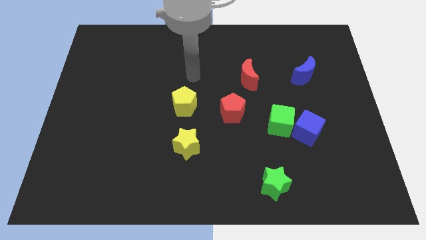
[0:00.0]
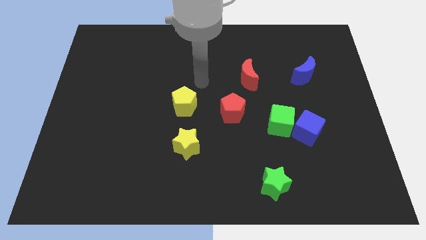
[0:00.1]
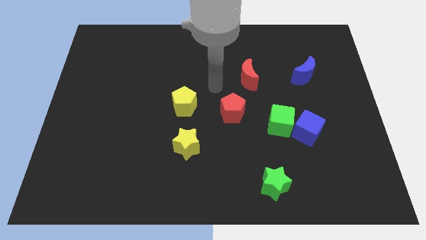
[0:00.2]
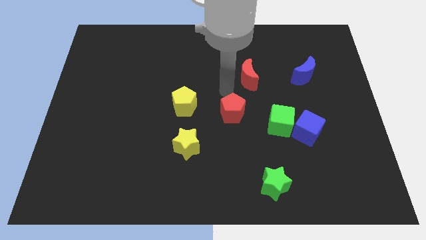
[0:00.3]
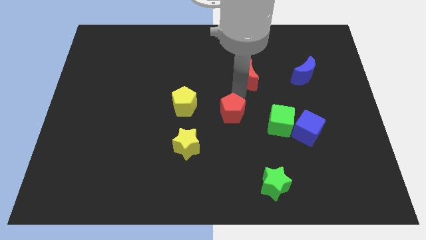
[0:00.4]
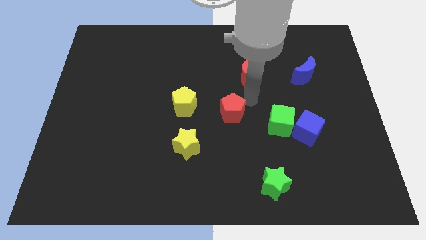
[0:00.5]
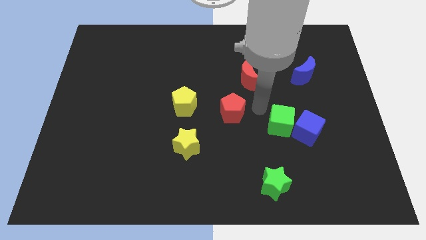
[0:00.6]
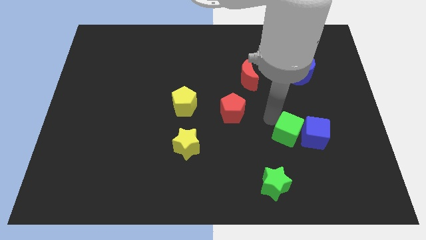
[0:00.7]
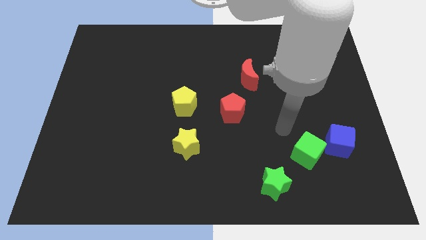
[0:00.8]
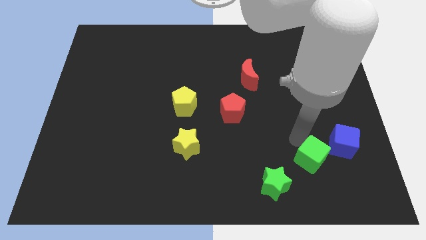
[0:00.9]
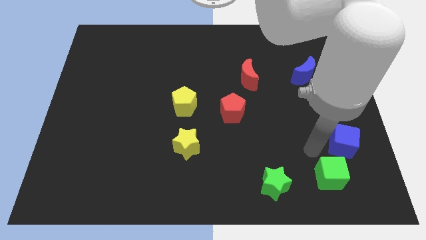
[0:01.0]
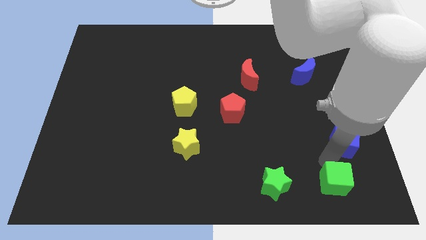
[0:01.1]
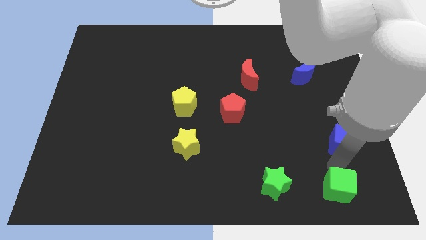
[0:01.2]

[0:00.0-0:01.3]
pull the blue cube apart from the green cube

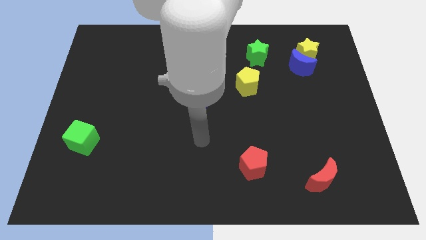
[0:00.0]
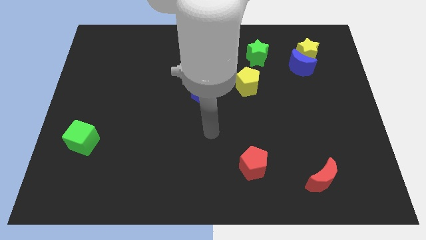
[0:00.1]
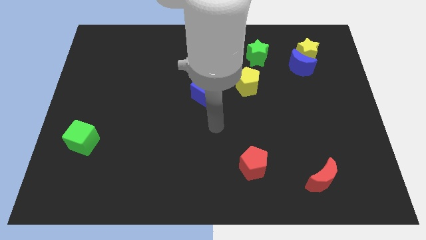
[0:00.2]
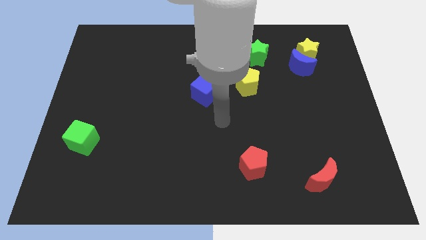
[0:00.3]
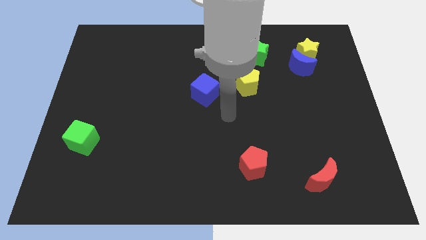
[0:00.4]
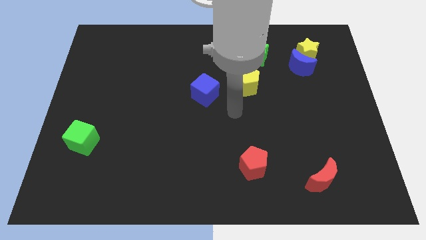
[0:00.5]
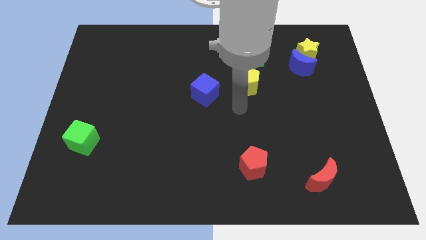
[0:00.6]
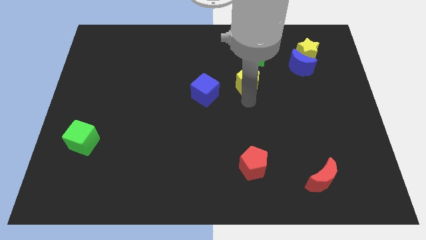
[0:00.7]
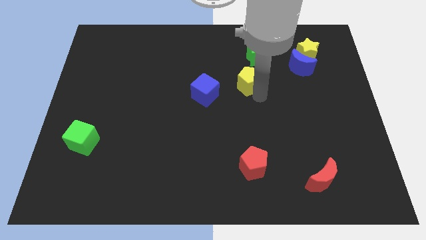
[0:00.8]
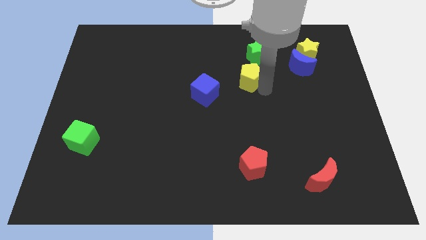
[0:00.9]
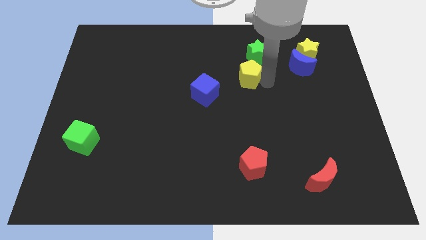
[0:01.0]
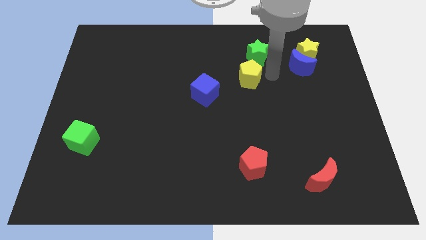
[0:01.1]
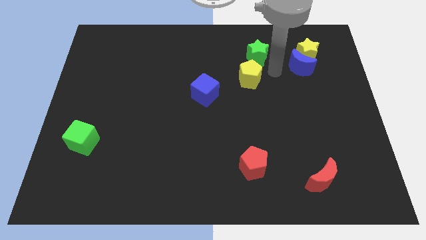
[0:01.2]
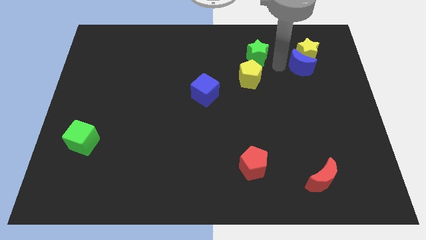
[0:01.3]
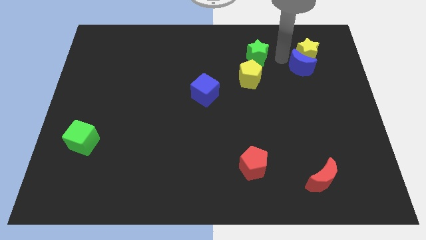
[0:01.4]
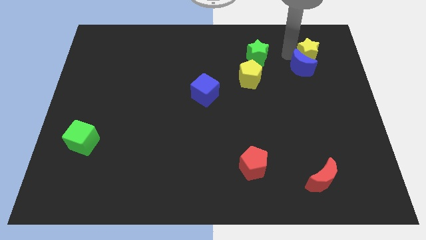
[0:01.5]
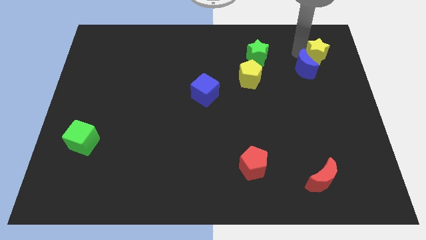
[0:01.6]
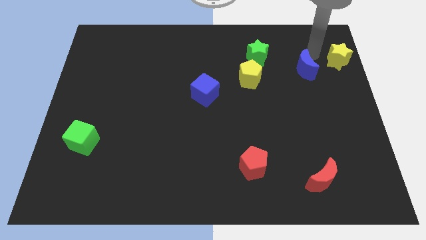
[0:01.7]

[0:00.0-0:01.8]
move the blue moon away from the yellow star

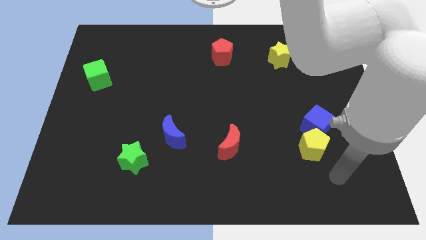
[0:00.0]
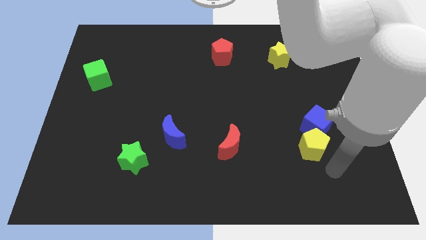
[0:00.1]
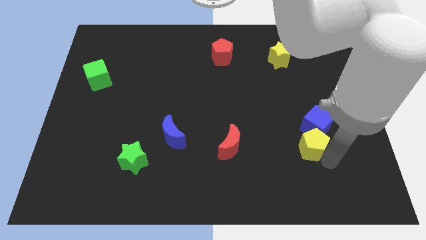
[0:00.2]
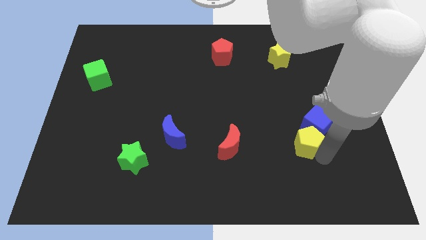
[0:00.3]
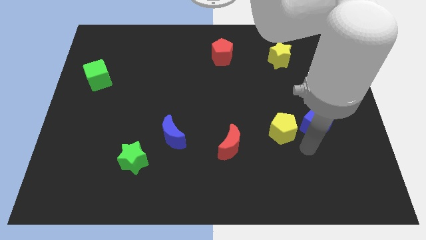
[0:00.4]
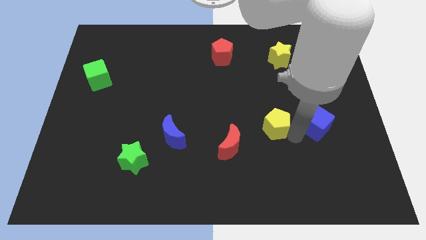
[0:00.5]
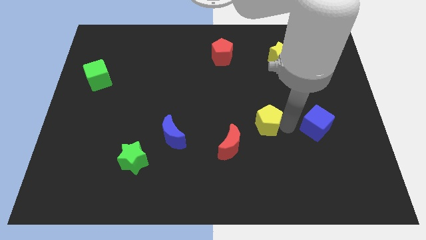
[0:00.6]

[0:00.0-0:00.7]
separate the blue cube from the yellow pentagon

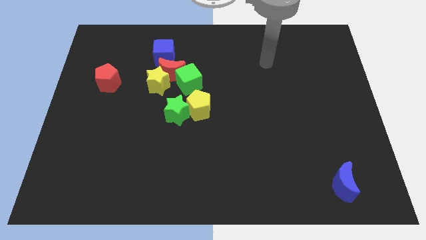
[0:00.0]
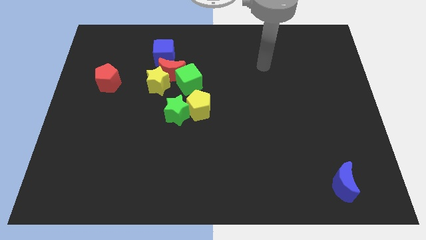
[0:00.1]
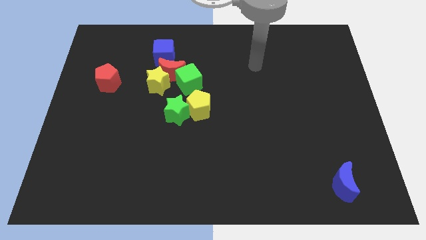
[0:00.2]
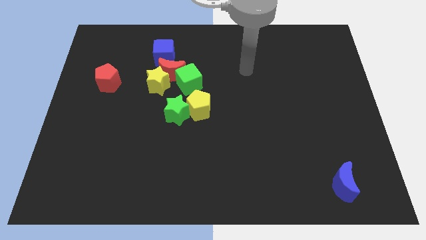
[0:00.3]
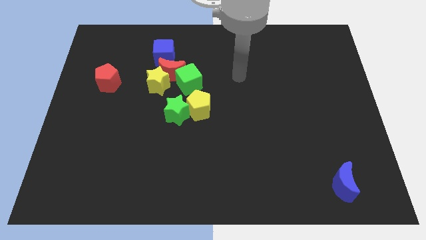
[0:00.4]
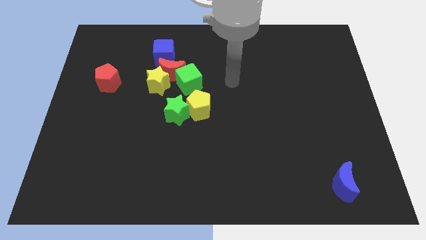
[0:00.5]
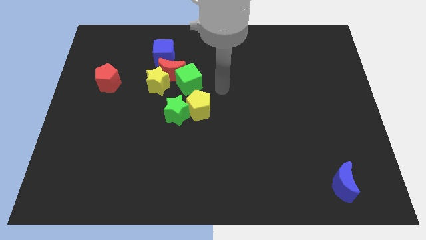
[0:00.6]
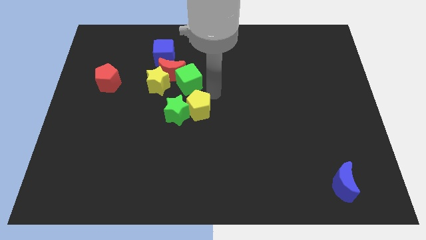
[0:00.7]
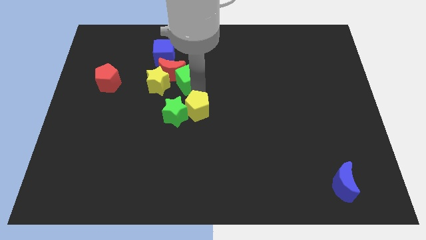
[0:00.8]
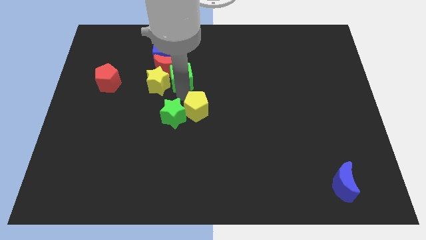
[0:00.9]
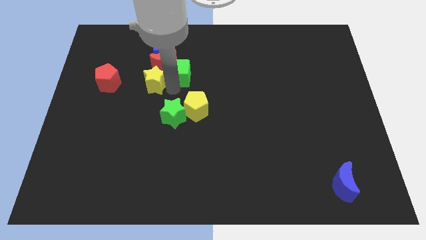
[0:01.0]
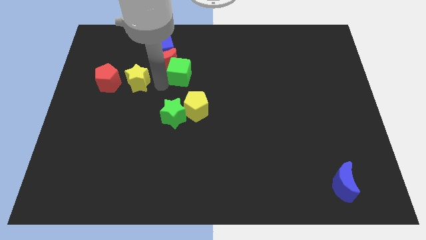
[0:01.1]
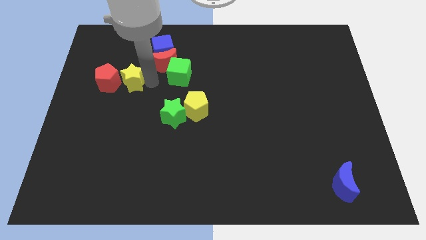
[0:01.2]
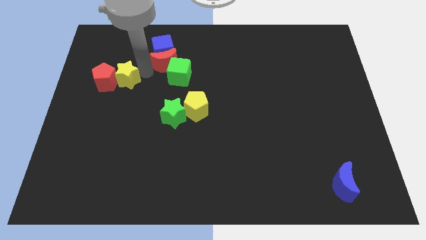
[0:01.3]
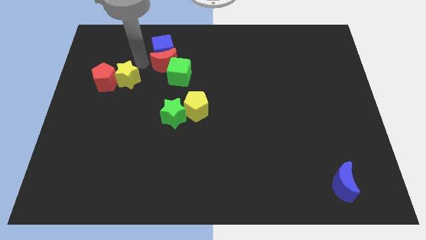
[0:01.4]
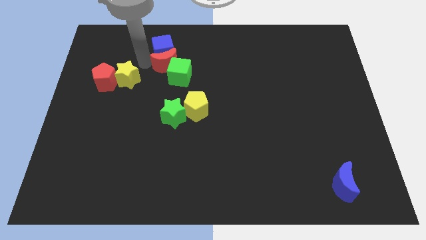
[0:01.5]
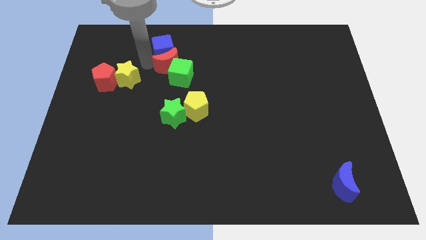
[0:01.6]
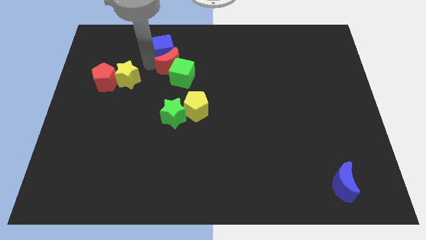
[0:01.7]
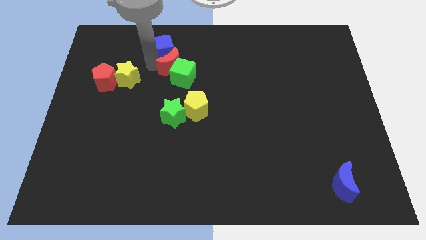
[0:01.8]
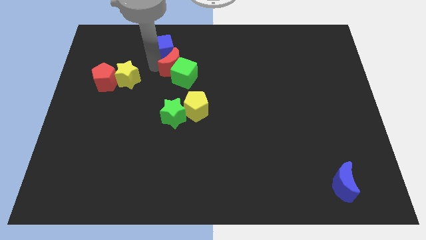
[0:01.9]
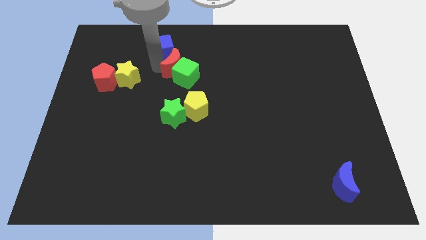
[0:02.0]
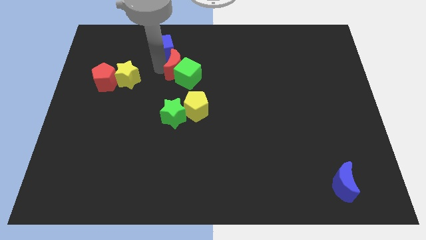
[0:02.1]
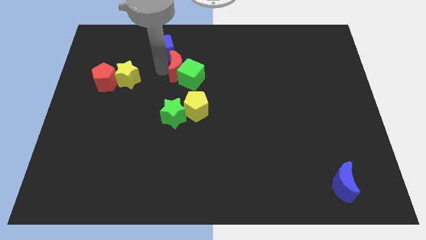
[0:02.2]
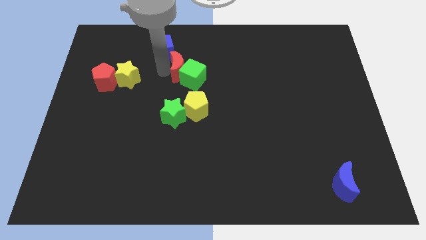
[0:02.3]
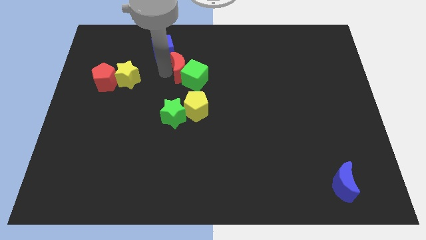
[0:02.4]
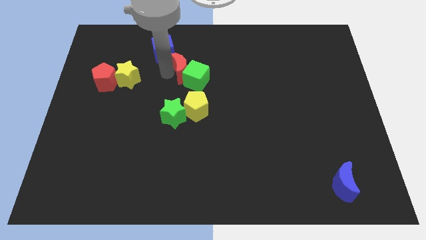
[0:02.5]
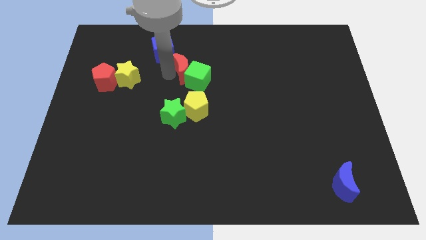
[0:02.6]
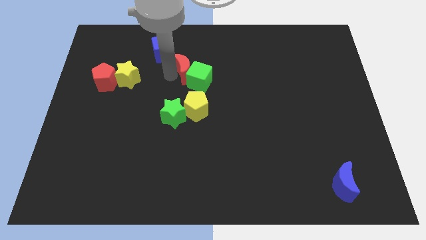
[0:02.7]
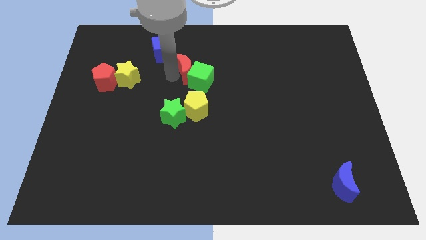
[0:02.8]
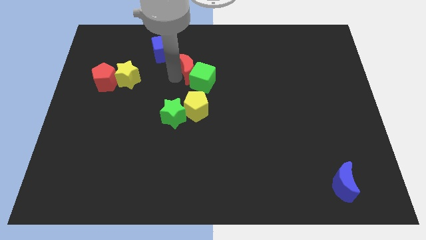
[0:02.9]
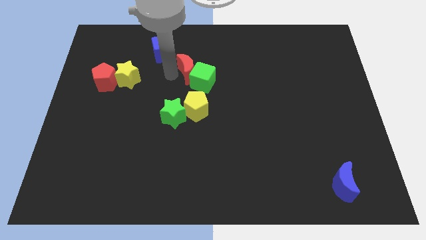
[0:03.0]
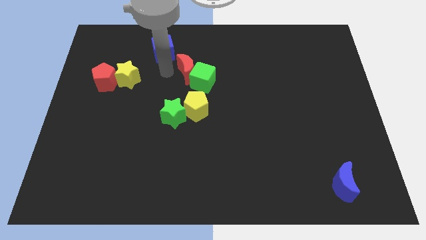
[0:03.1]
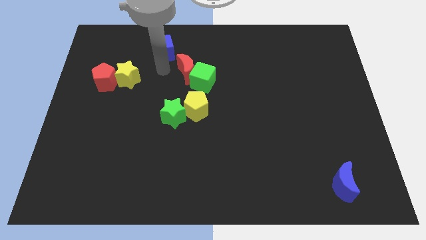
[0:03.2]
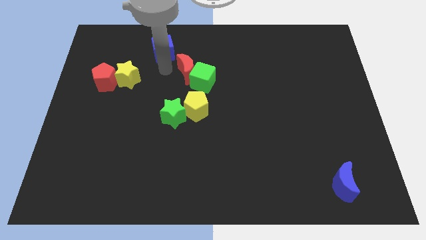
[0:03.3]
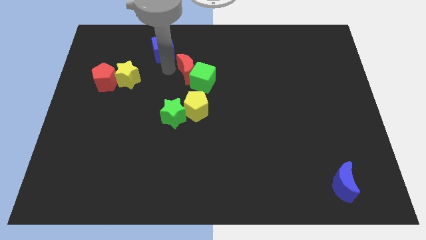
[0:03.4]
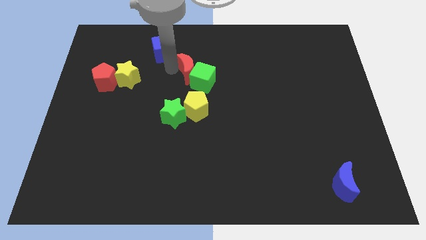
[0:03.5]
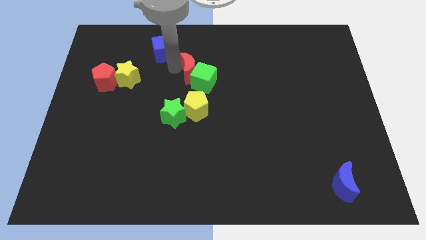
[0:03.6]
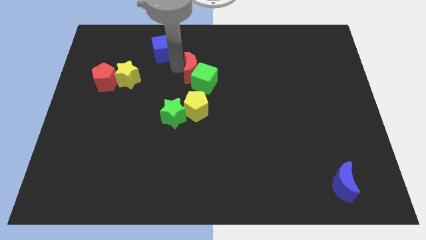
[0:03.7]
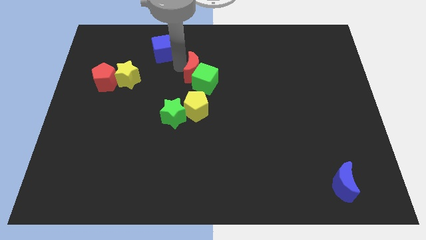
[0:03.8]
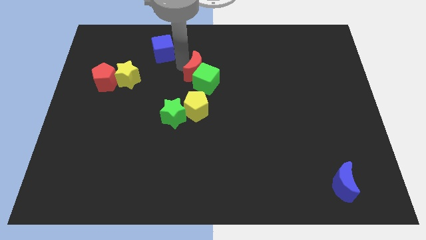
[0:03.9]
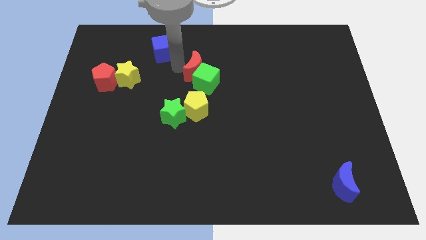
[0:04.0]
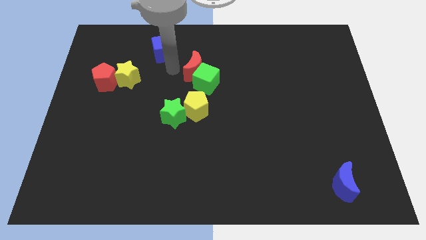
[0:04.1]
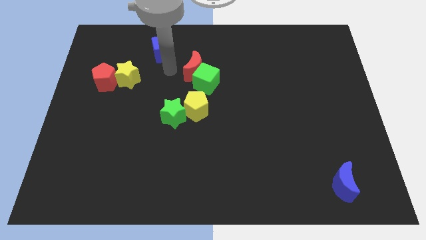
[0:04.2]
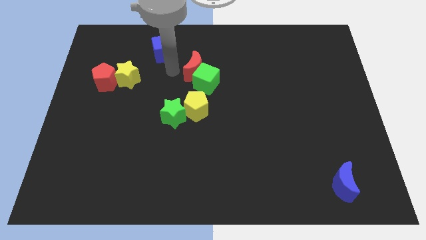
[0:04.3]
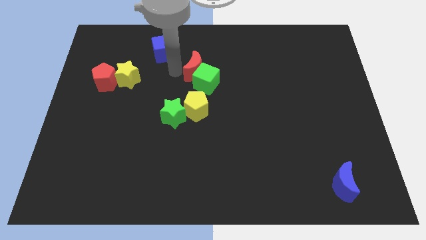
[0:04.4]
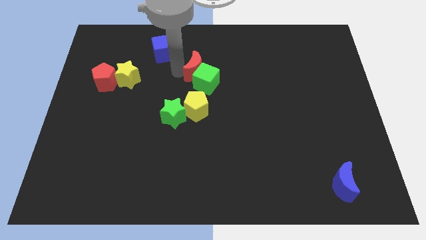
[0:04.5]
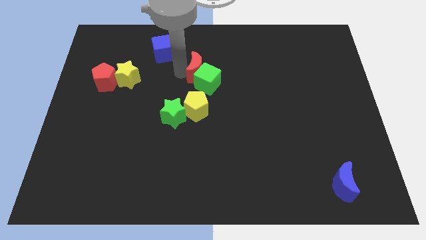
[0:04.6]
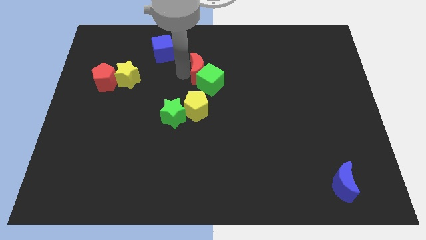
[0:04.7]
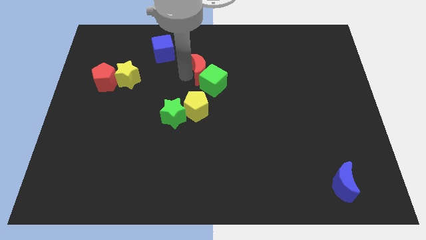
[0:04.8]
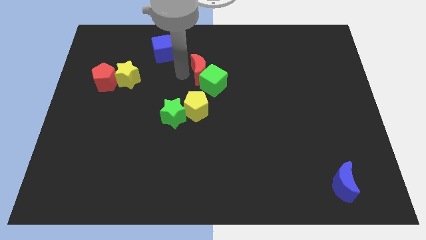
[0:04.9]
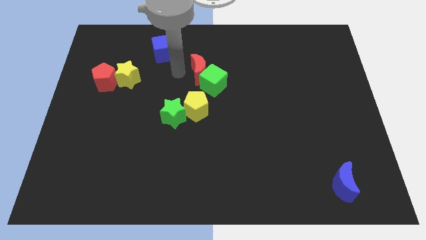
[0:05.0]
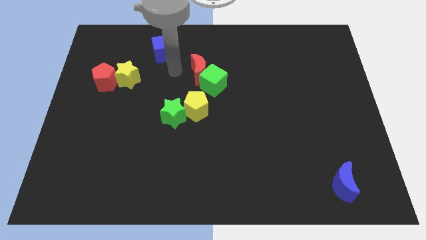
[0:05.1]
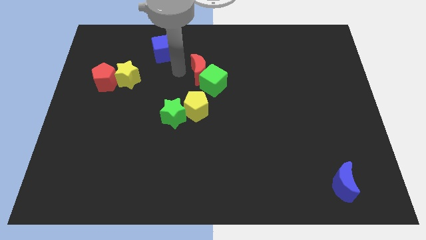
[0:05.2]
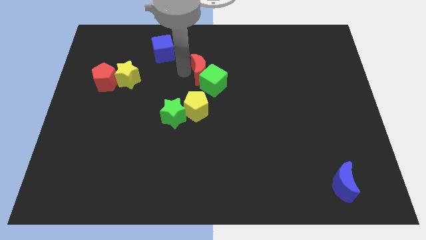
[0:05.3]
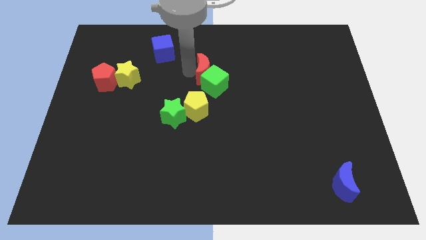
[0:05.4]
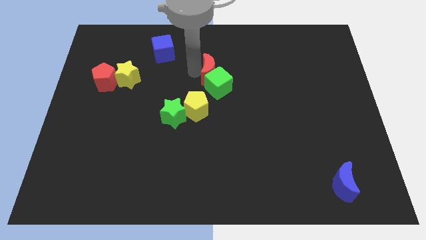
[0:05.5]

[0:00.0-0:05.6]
pull the red moon apart from the group
